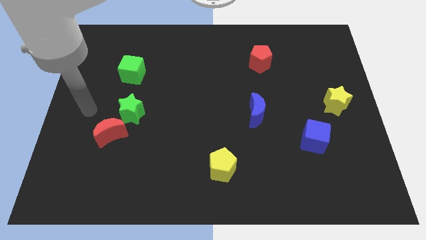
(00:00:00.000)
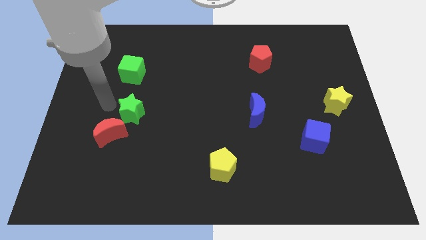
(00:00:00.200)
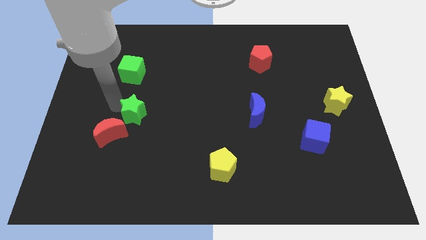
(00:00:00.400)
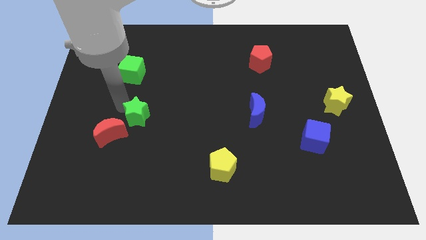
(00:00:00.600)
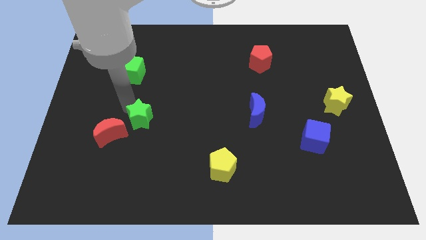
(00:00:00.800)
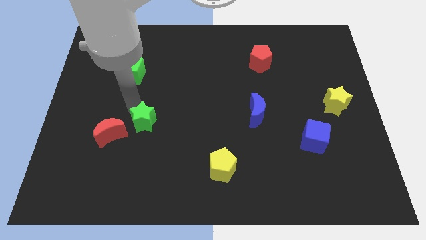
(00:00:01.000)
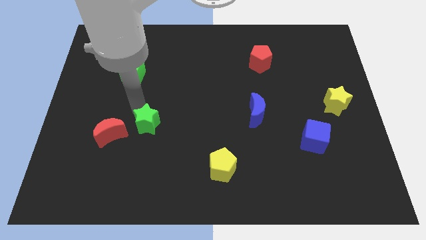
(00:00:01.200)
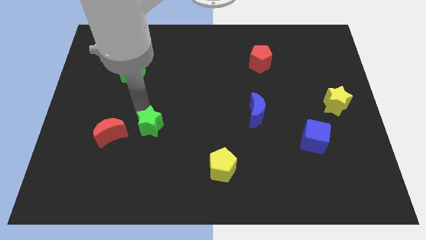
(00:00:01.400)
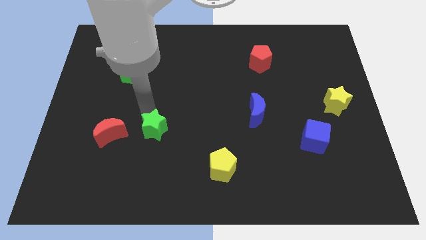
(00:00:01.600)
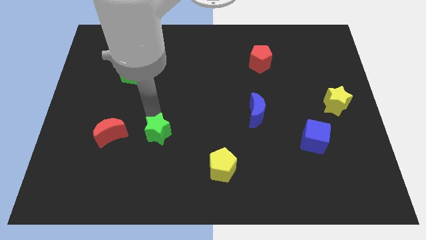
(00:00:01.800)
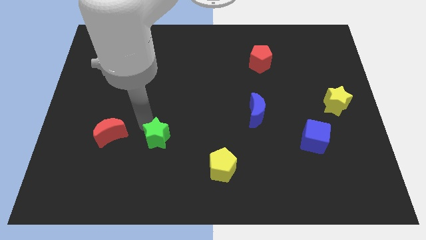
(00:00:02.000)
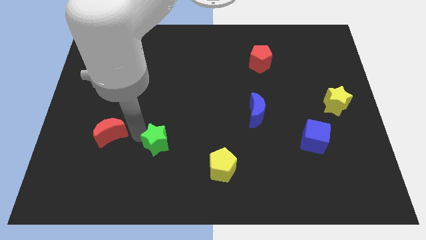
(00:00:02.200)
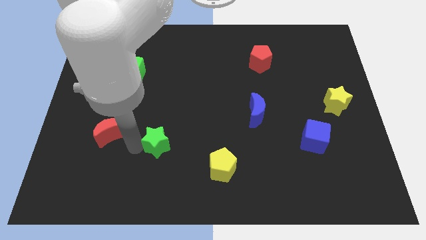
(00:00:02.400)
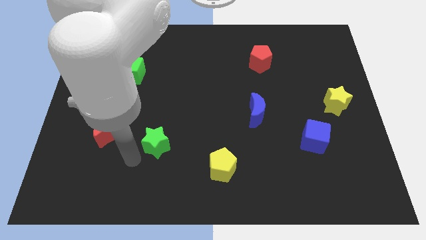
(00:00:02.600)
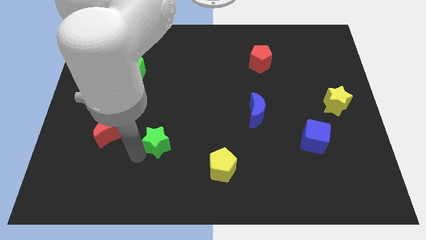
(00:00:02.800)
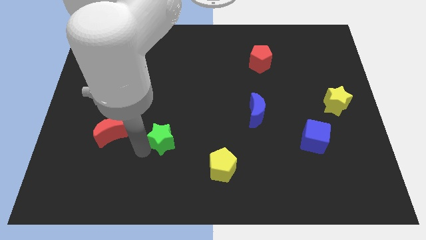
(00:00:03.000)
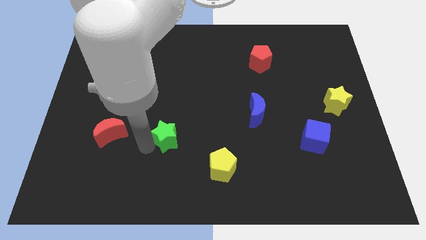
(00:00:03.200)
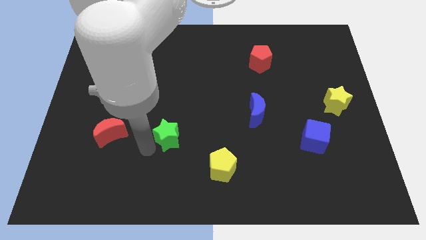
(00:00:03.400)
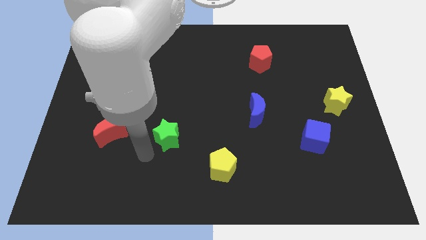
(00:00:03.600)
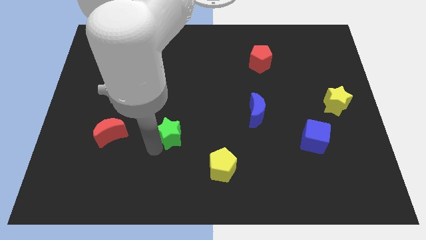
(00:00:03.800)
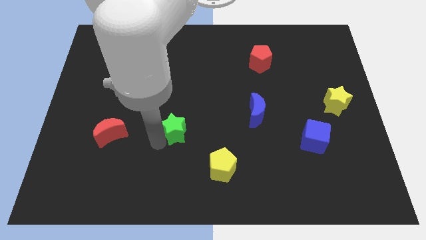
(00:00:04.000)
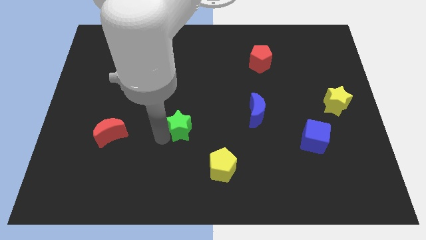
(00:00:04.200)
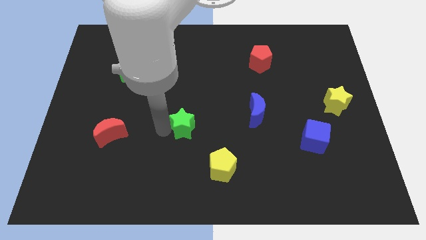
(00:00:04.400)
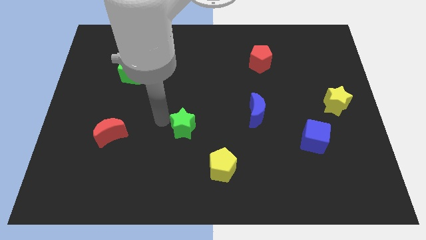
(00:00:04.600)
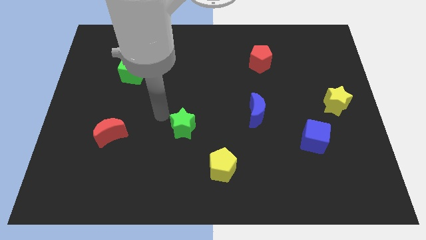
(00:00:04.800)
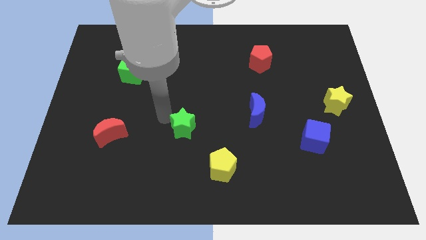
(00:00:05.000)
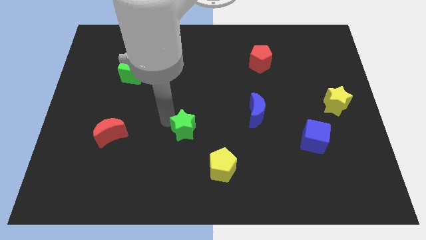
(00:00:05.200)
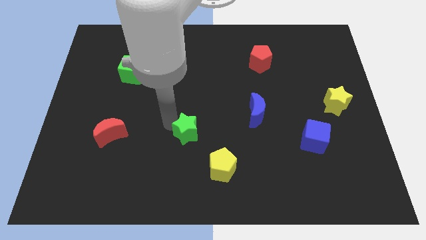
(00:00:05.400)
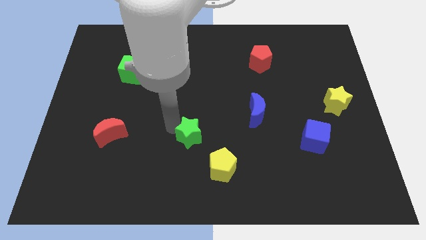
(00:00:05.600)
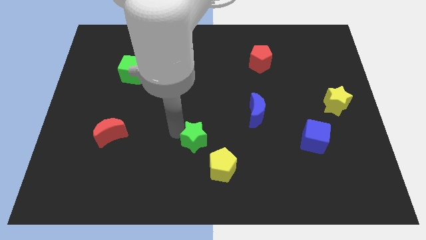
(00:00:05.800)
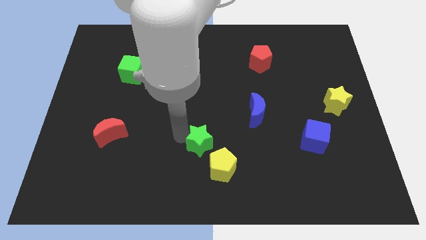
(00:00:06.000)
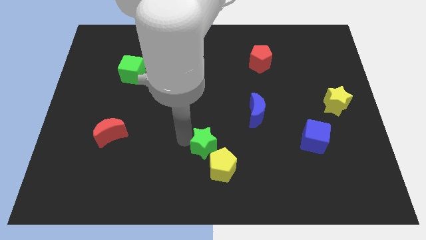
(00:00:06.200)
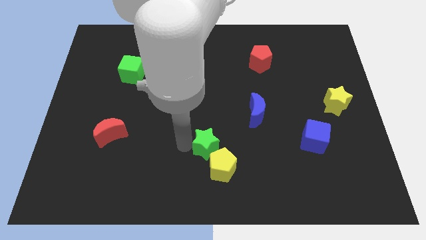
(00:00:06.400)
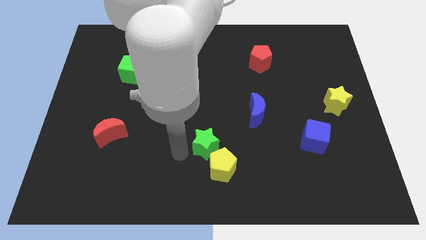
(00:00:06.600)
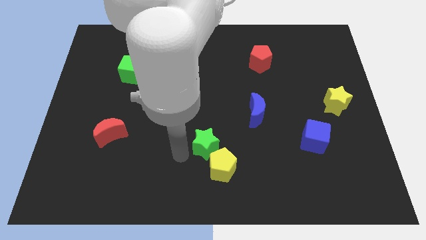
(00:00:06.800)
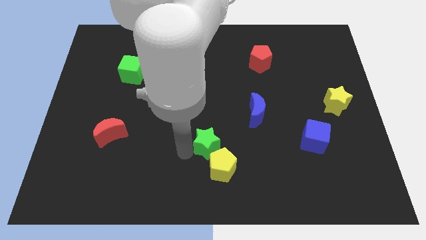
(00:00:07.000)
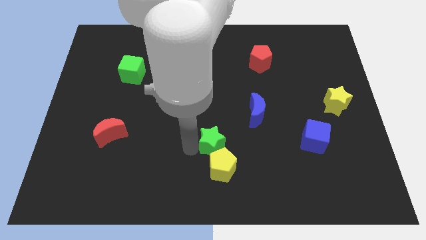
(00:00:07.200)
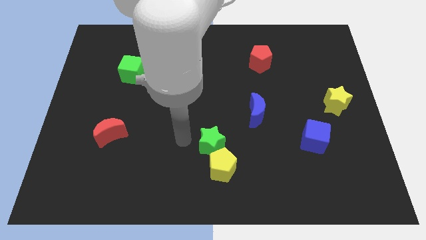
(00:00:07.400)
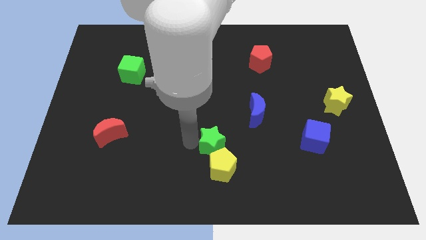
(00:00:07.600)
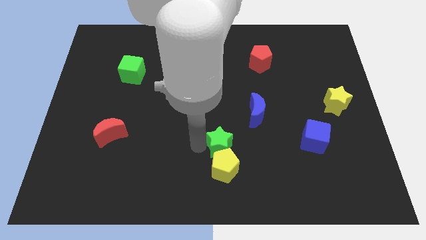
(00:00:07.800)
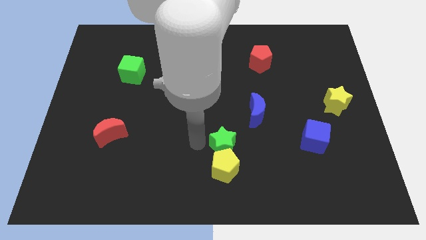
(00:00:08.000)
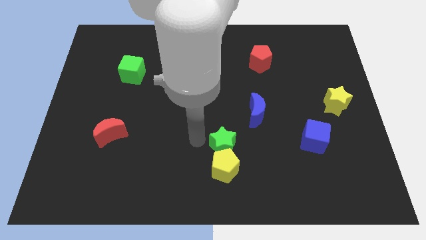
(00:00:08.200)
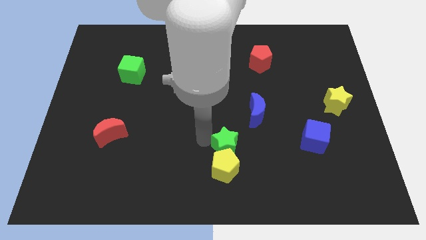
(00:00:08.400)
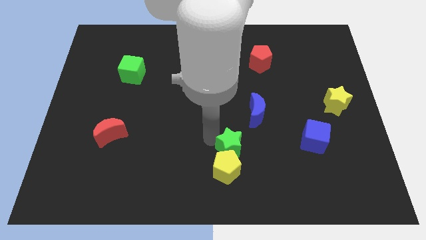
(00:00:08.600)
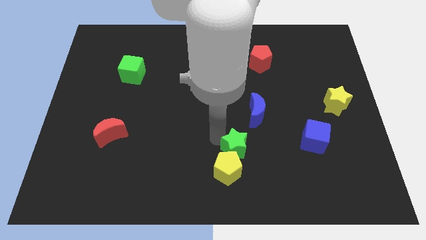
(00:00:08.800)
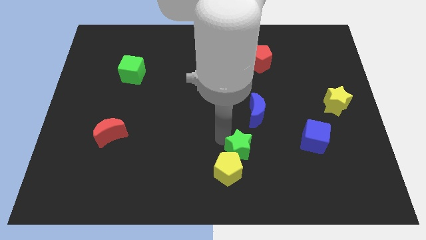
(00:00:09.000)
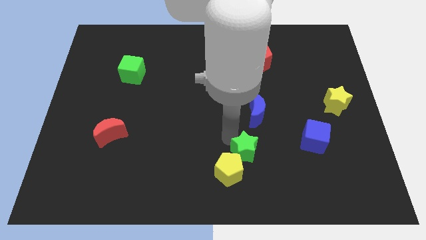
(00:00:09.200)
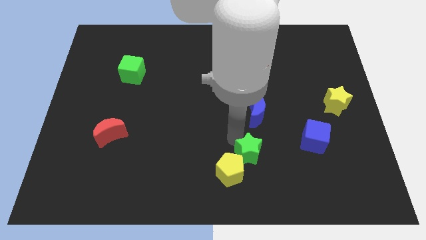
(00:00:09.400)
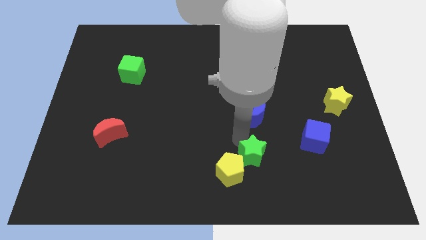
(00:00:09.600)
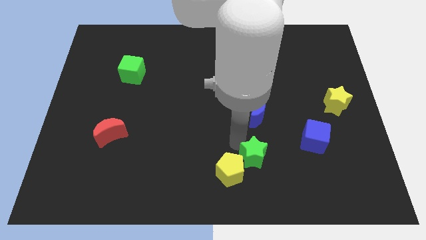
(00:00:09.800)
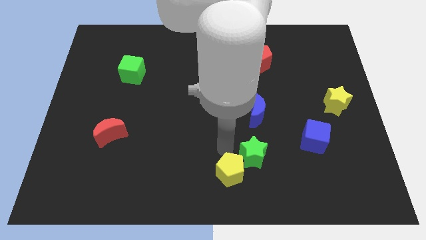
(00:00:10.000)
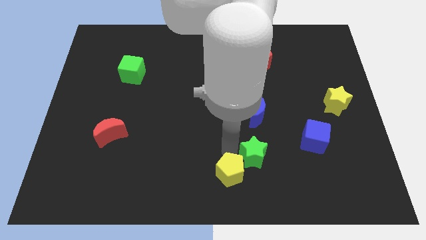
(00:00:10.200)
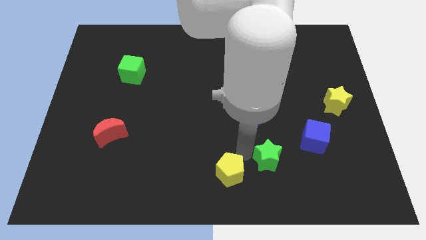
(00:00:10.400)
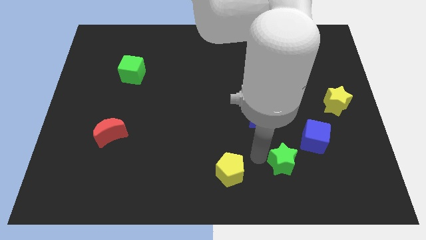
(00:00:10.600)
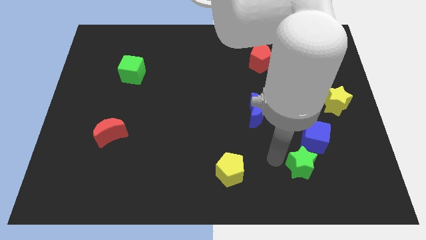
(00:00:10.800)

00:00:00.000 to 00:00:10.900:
put the green star below the blue cube

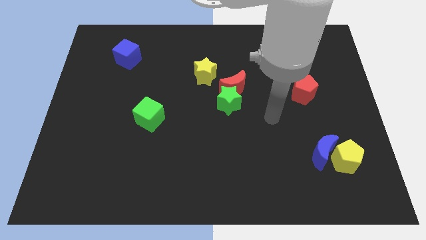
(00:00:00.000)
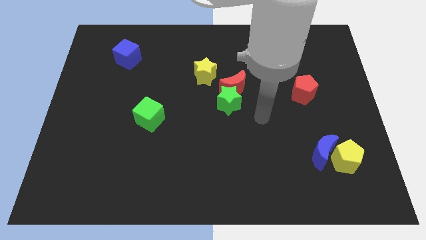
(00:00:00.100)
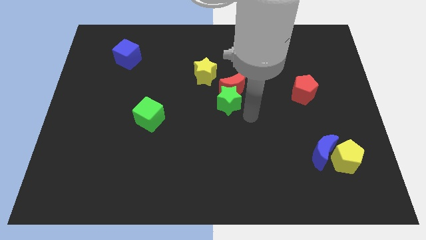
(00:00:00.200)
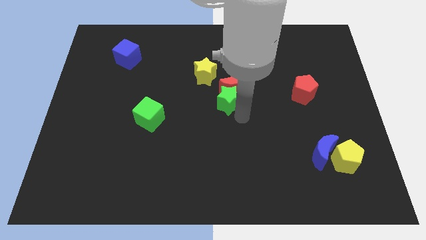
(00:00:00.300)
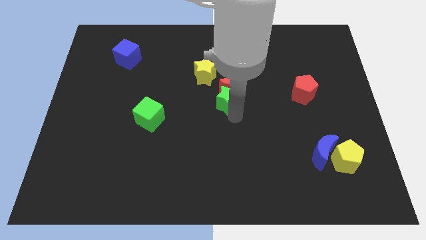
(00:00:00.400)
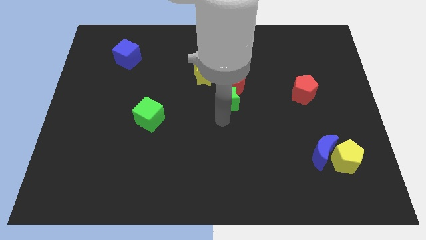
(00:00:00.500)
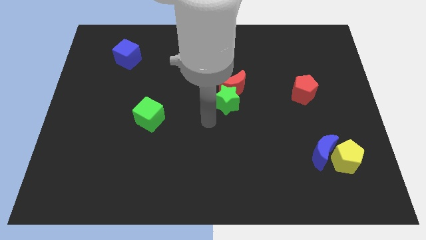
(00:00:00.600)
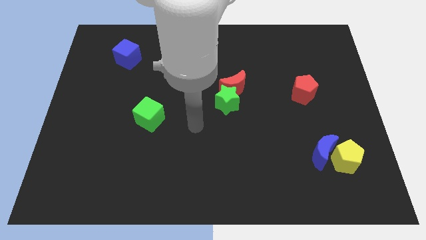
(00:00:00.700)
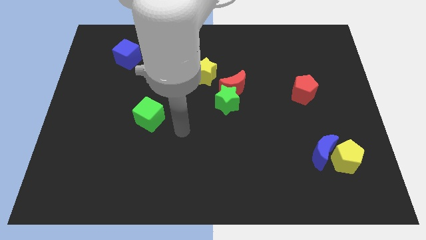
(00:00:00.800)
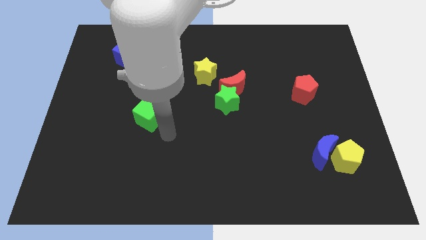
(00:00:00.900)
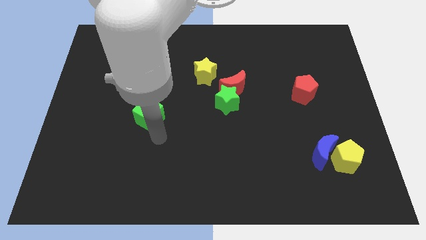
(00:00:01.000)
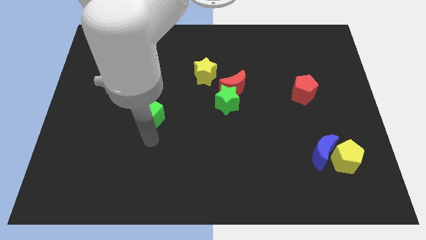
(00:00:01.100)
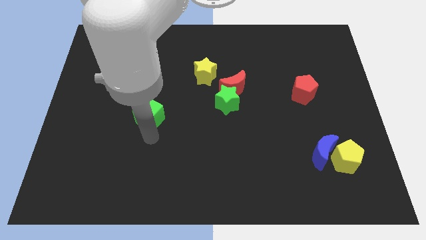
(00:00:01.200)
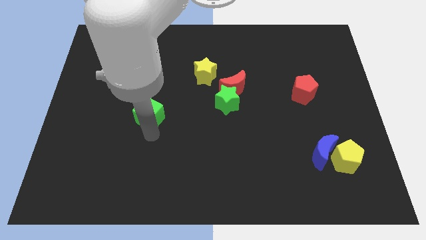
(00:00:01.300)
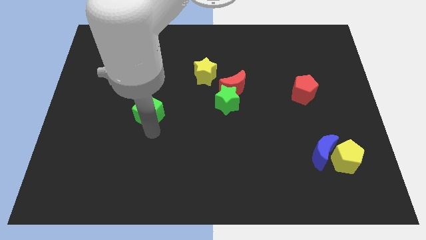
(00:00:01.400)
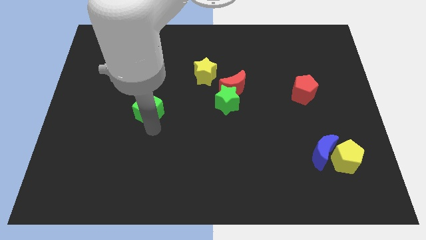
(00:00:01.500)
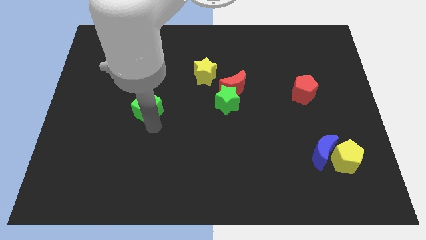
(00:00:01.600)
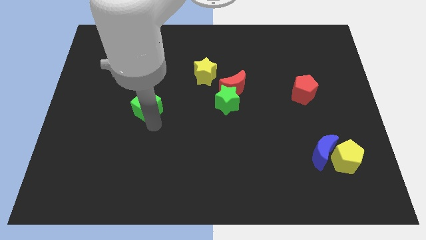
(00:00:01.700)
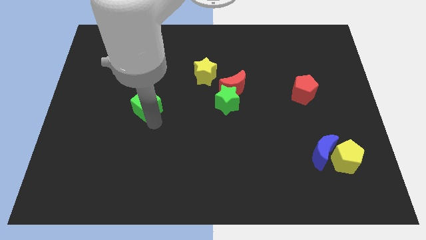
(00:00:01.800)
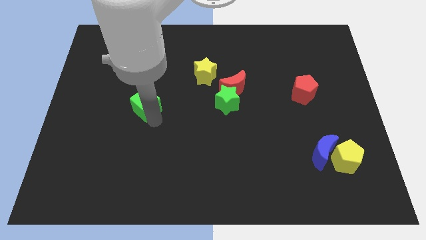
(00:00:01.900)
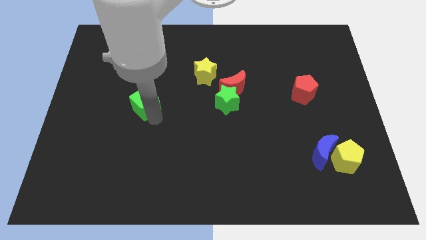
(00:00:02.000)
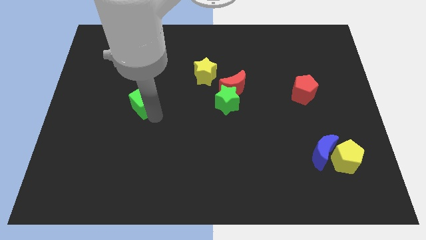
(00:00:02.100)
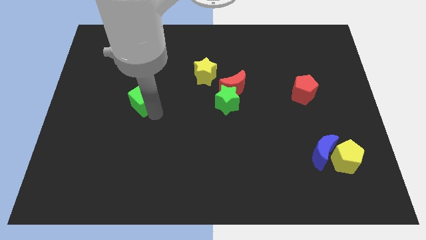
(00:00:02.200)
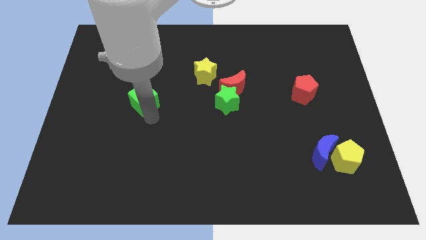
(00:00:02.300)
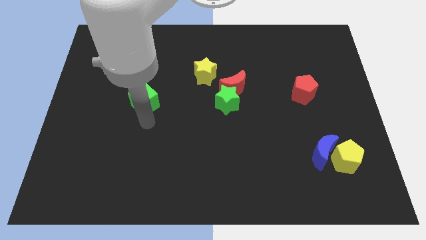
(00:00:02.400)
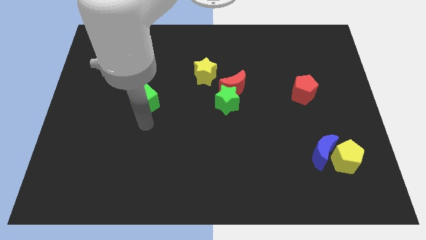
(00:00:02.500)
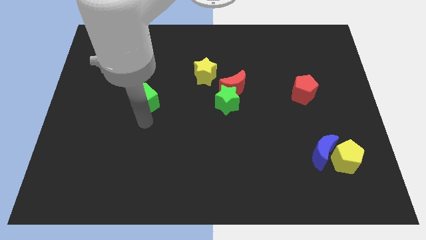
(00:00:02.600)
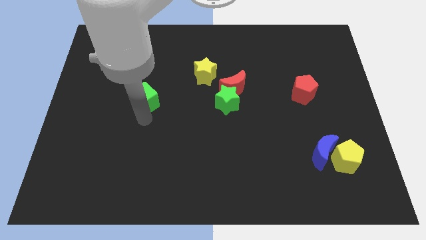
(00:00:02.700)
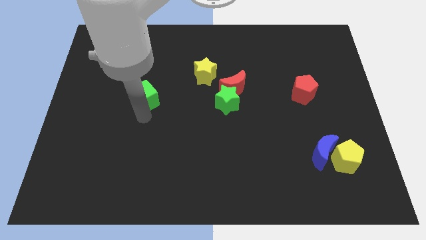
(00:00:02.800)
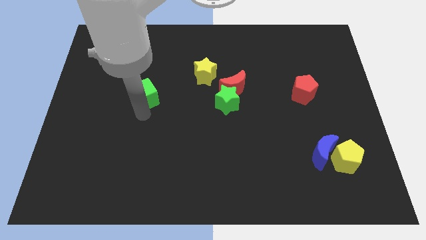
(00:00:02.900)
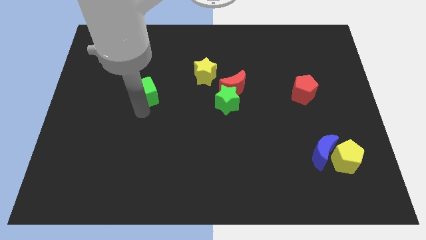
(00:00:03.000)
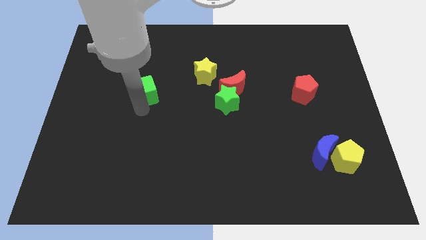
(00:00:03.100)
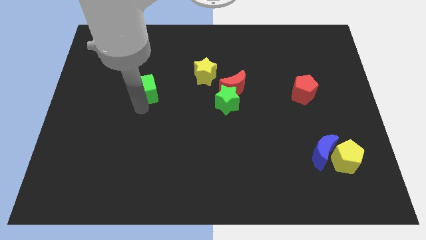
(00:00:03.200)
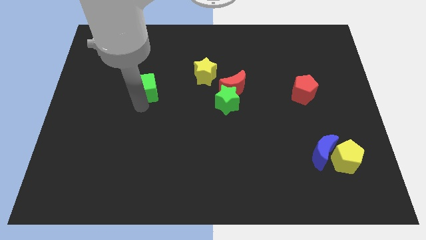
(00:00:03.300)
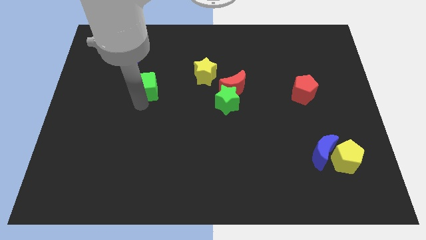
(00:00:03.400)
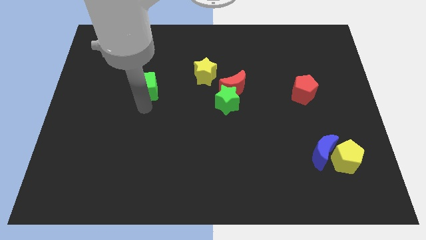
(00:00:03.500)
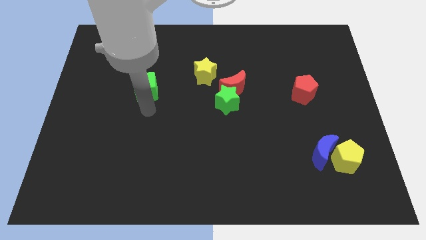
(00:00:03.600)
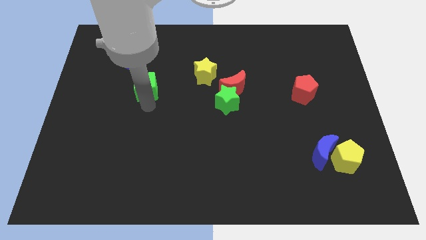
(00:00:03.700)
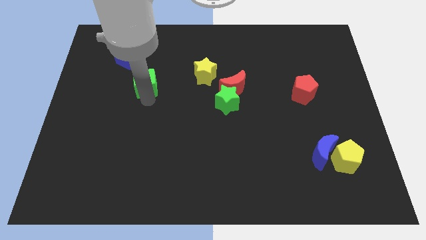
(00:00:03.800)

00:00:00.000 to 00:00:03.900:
slide the green cube diagonally down and to the right of the blue cube
